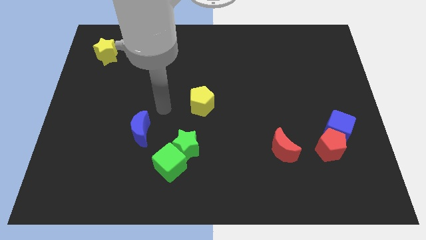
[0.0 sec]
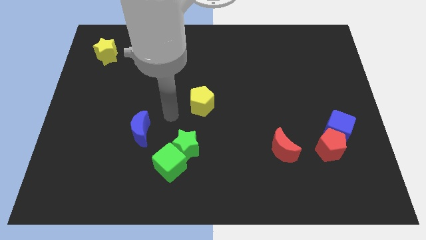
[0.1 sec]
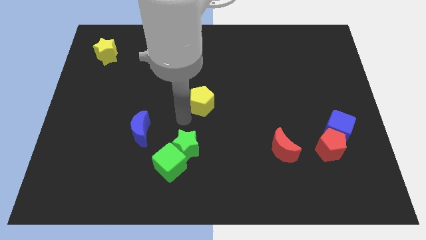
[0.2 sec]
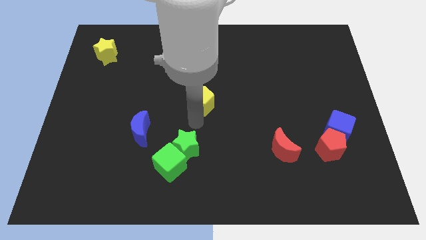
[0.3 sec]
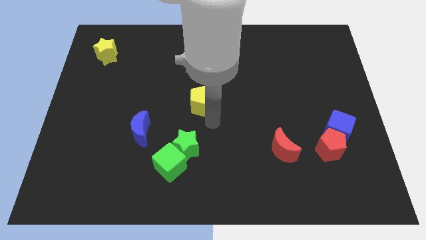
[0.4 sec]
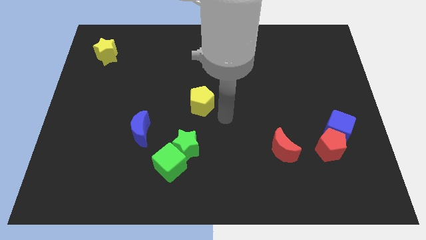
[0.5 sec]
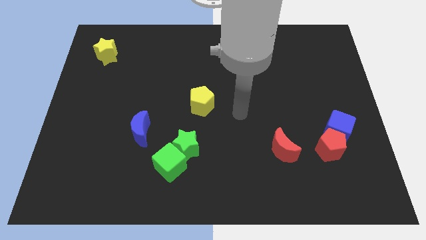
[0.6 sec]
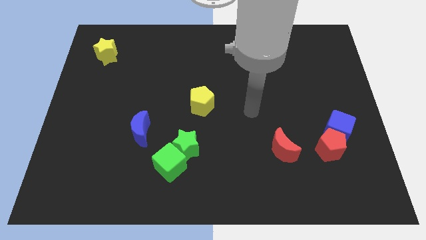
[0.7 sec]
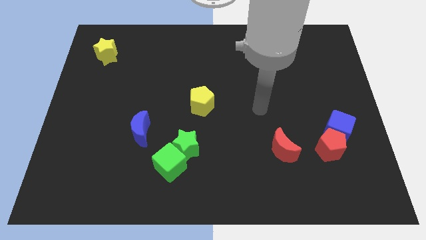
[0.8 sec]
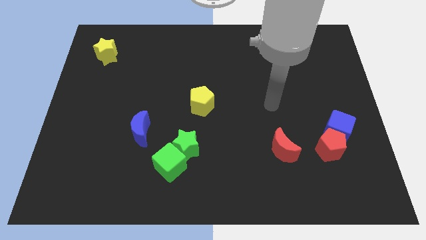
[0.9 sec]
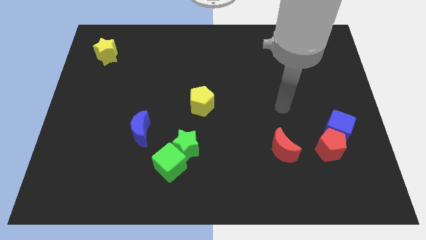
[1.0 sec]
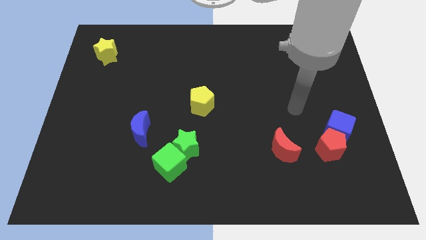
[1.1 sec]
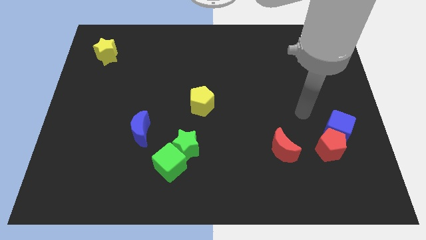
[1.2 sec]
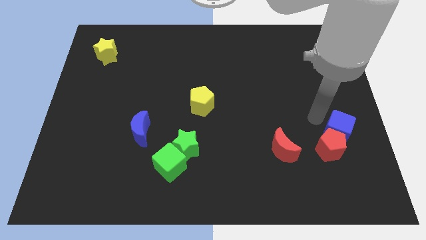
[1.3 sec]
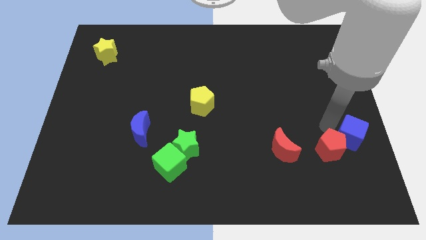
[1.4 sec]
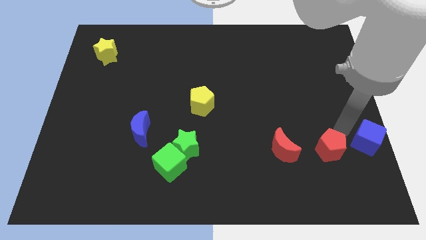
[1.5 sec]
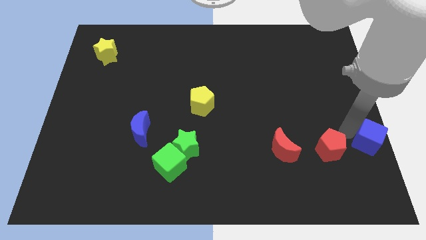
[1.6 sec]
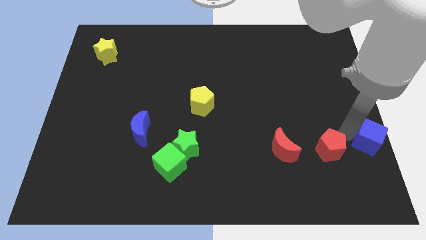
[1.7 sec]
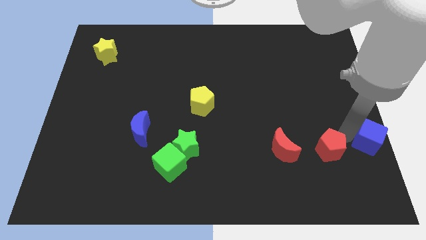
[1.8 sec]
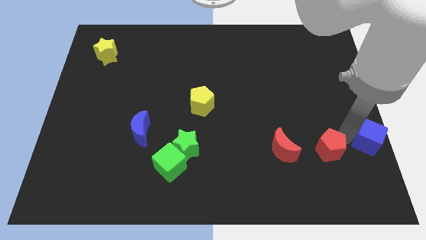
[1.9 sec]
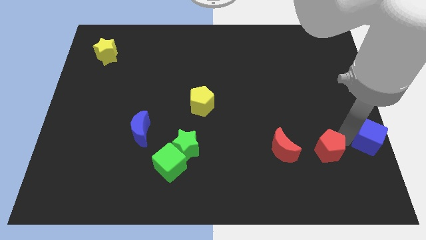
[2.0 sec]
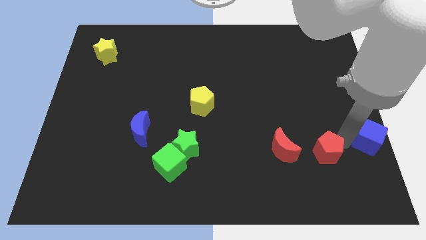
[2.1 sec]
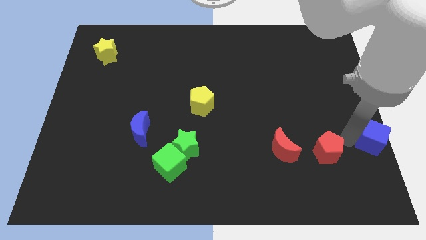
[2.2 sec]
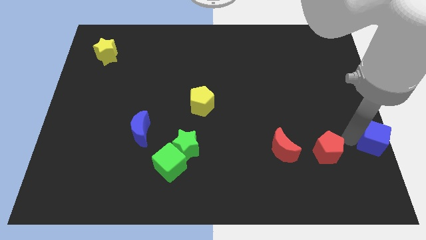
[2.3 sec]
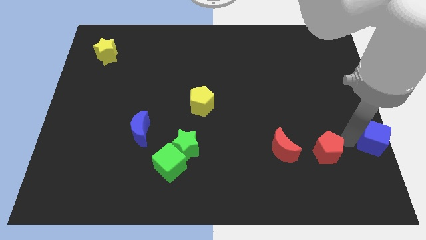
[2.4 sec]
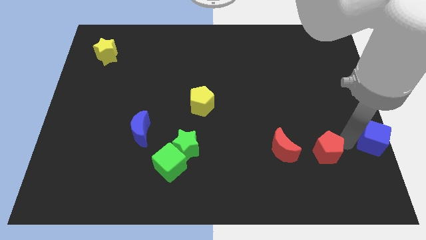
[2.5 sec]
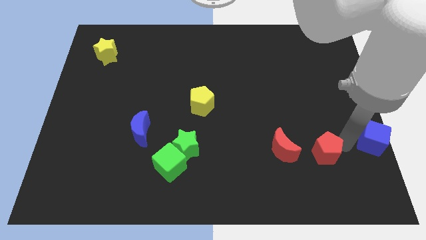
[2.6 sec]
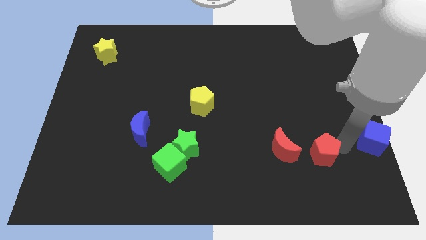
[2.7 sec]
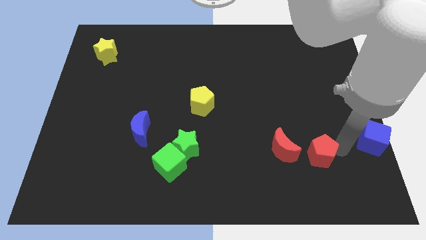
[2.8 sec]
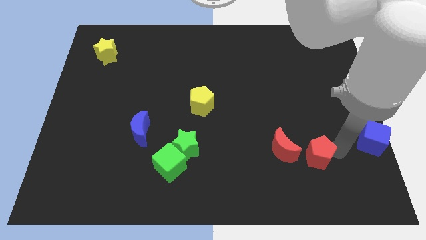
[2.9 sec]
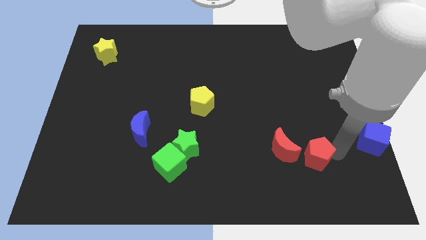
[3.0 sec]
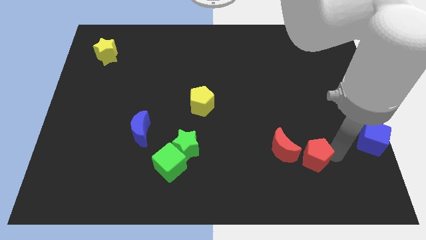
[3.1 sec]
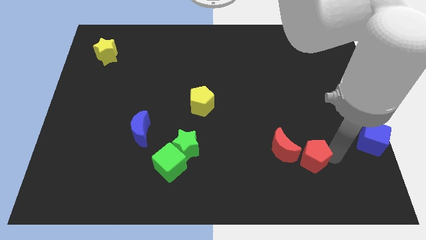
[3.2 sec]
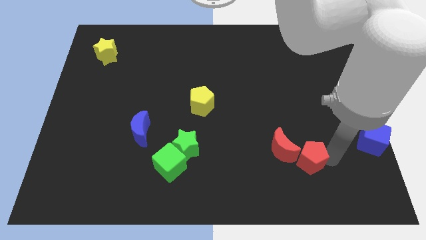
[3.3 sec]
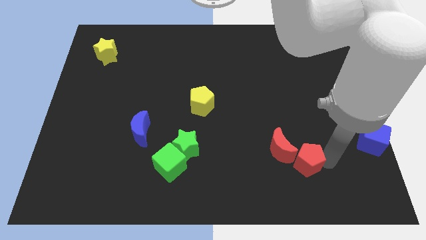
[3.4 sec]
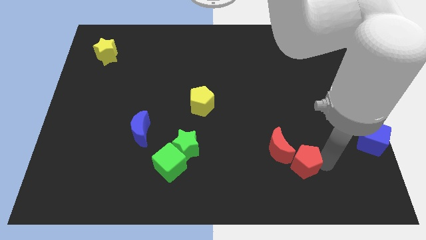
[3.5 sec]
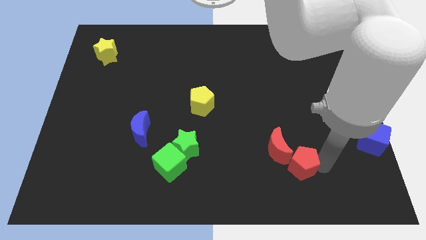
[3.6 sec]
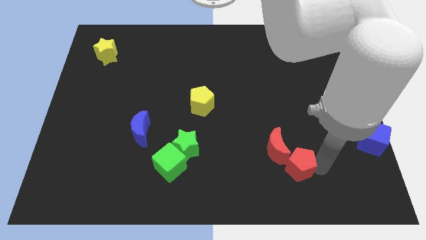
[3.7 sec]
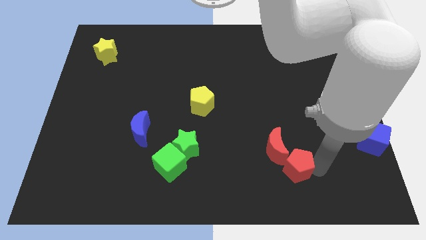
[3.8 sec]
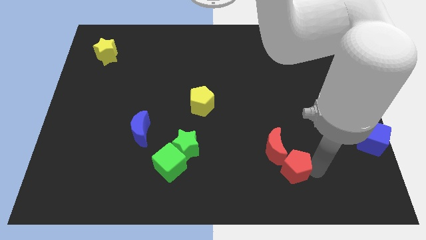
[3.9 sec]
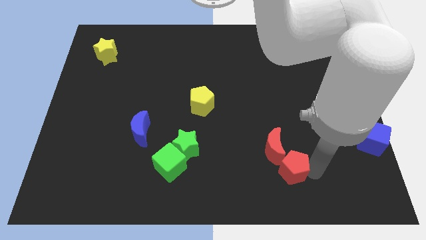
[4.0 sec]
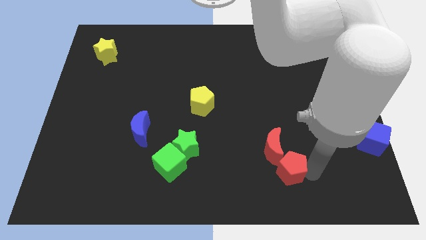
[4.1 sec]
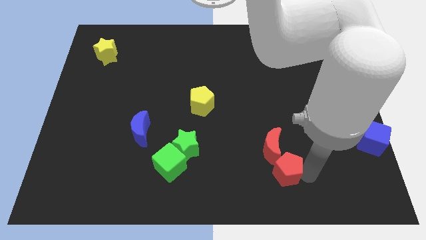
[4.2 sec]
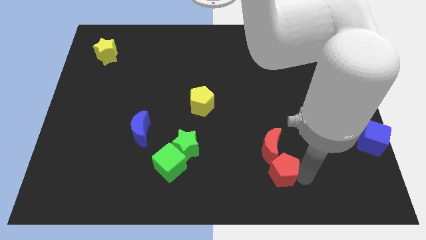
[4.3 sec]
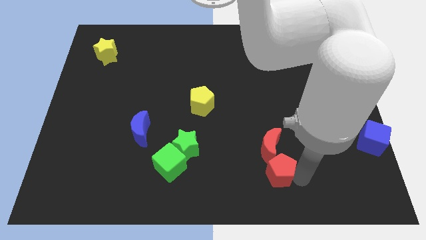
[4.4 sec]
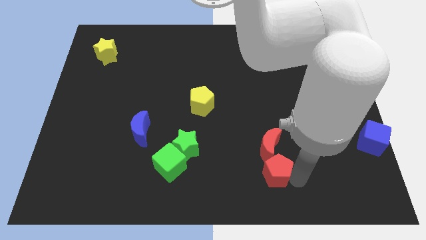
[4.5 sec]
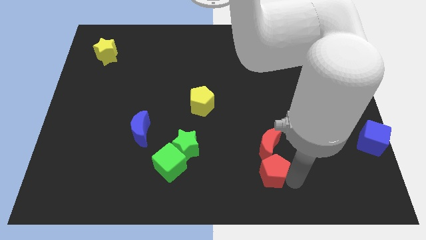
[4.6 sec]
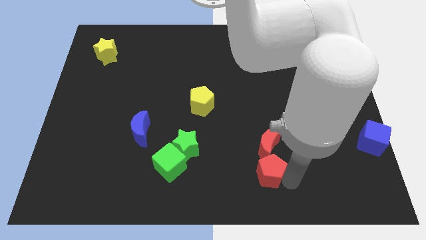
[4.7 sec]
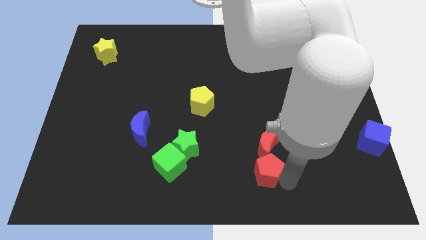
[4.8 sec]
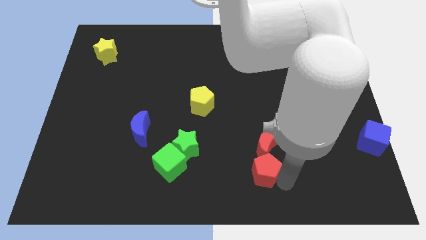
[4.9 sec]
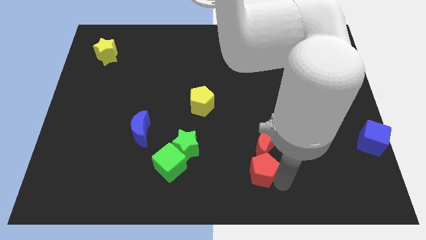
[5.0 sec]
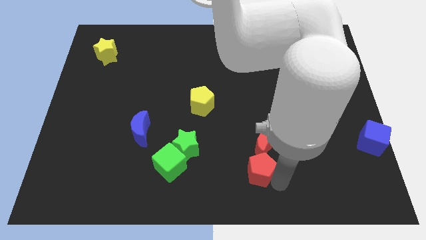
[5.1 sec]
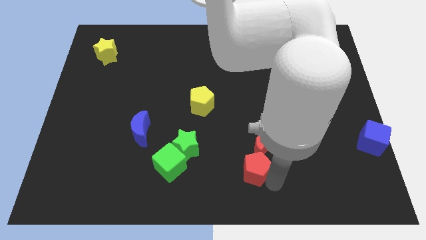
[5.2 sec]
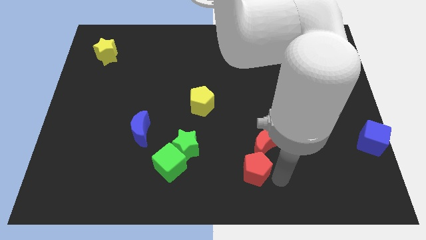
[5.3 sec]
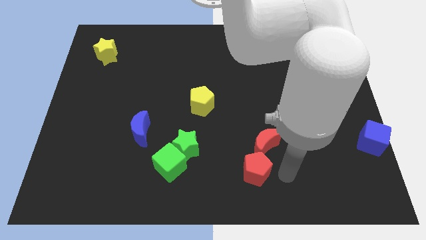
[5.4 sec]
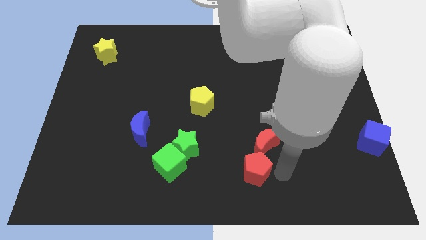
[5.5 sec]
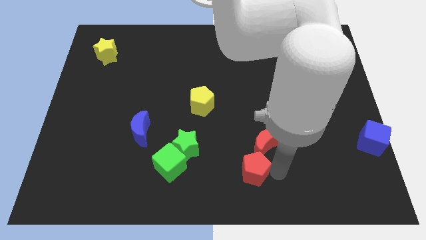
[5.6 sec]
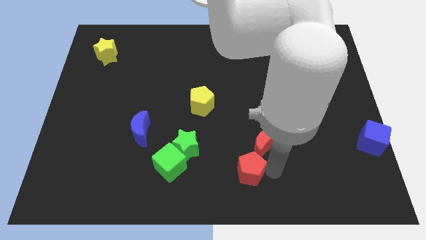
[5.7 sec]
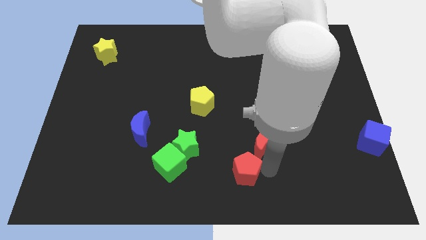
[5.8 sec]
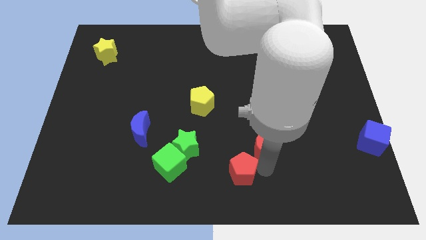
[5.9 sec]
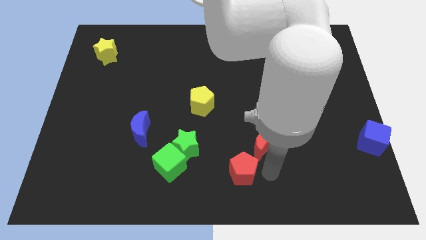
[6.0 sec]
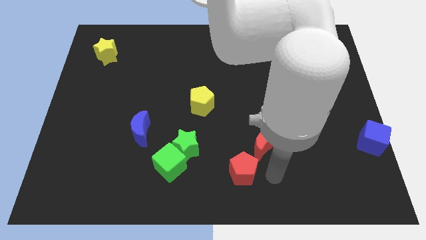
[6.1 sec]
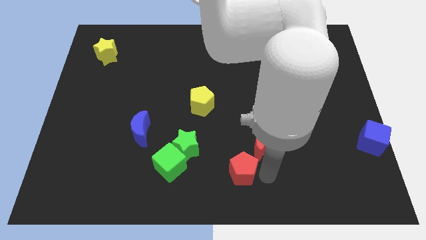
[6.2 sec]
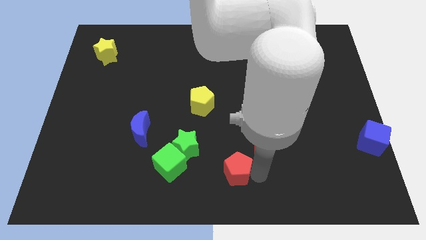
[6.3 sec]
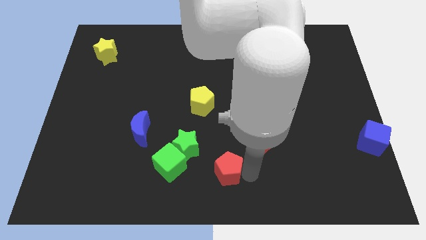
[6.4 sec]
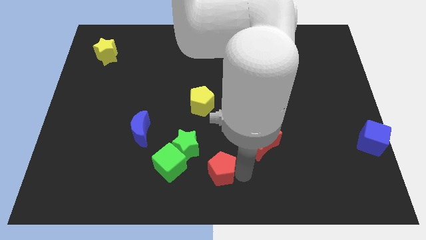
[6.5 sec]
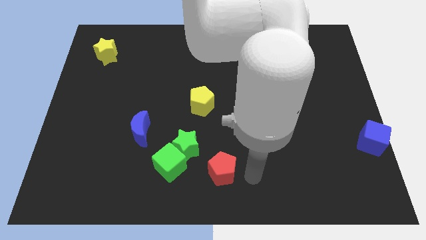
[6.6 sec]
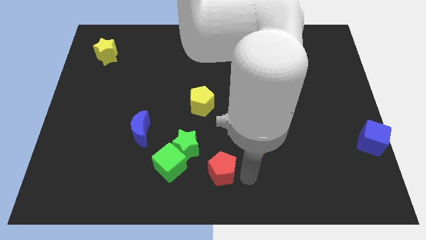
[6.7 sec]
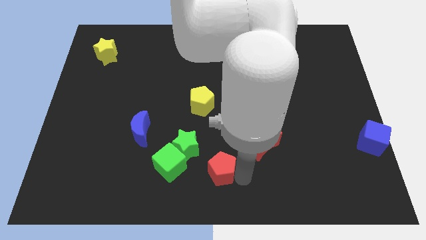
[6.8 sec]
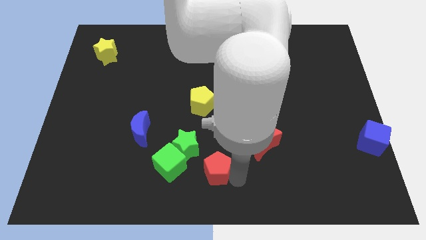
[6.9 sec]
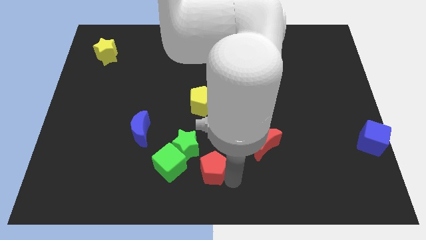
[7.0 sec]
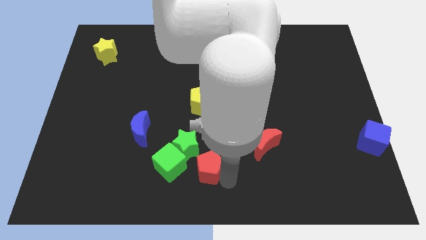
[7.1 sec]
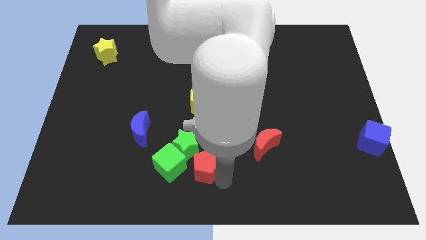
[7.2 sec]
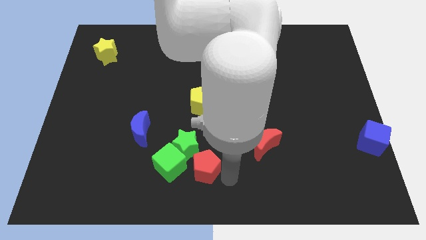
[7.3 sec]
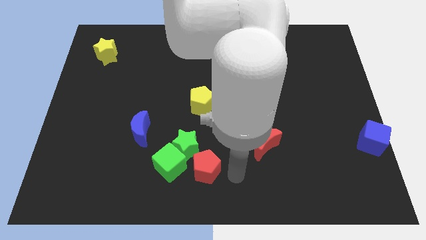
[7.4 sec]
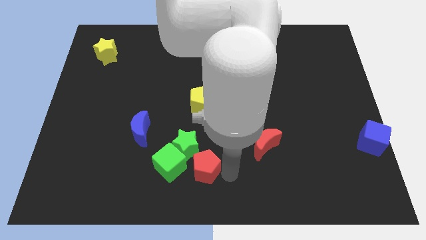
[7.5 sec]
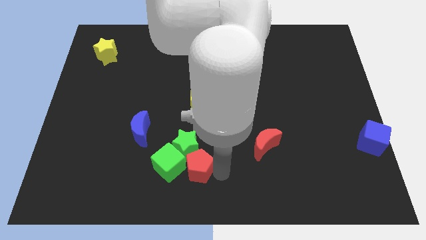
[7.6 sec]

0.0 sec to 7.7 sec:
move the red pentagon close to the green cube
